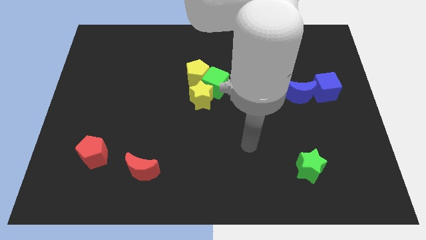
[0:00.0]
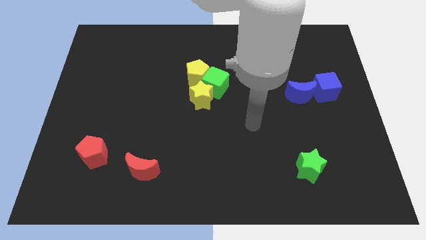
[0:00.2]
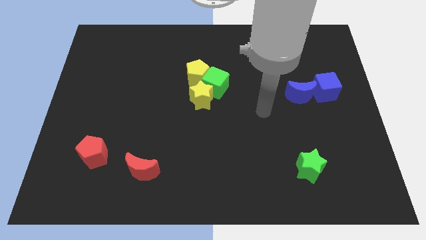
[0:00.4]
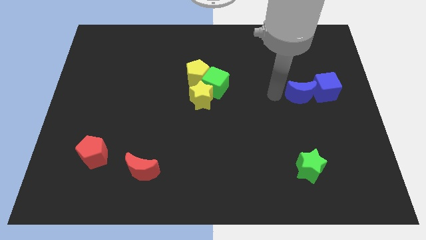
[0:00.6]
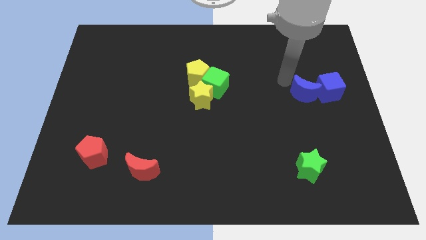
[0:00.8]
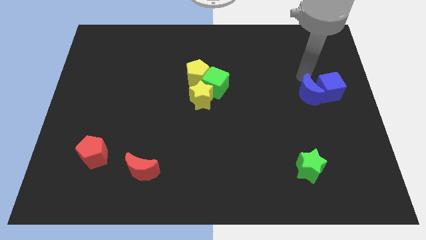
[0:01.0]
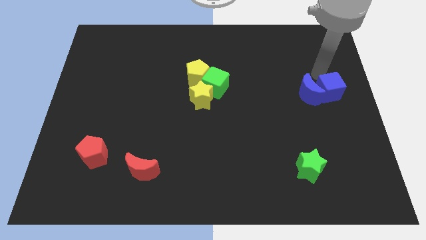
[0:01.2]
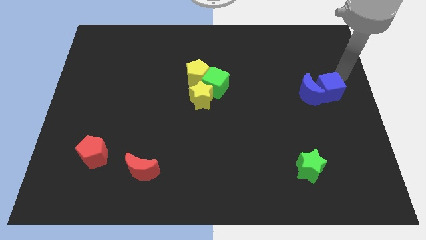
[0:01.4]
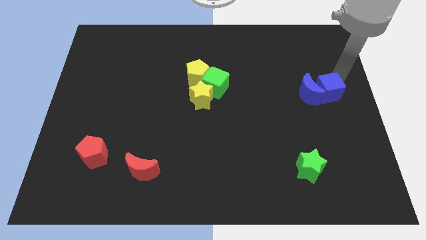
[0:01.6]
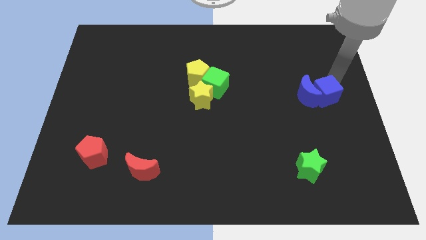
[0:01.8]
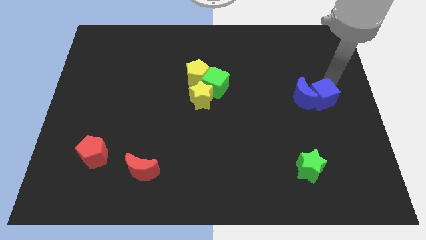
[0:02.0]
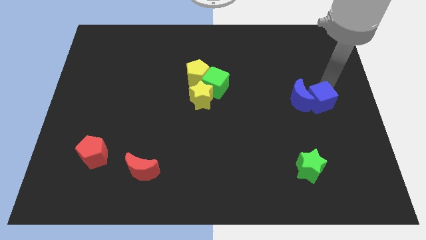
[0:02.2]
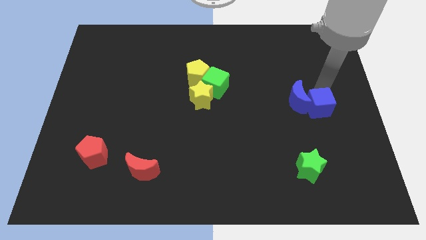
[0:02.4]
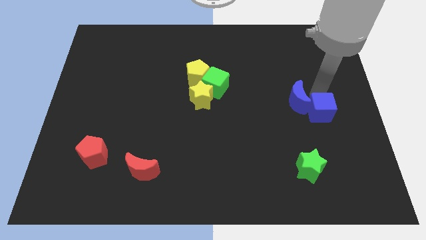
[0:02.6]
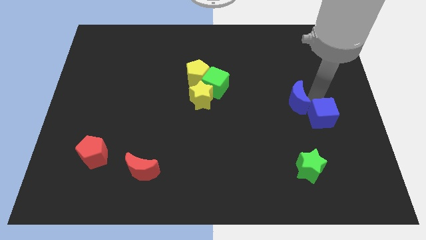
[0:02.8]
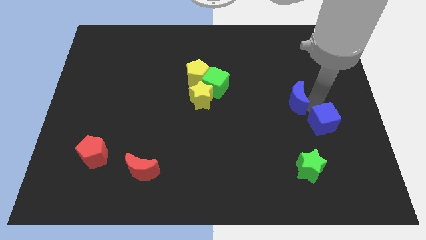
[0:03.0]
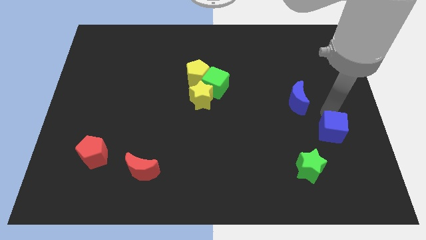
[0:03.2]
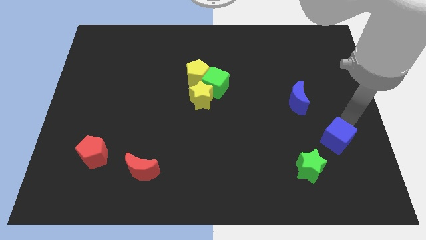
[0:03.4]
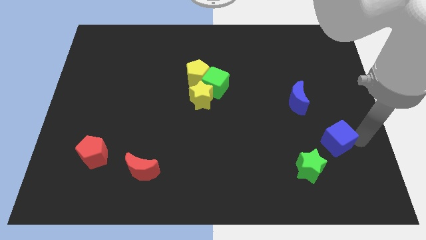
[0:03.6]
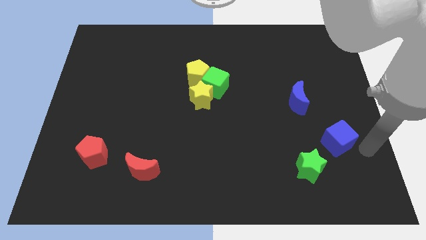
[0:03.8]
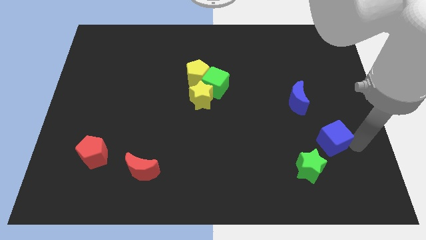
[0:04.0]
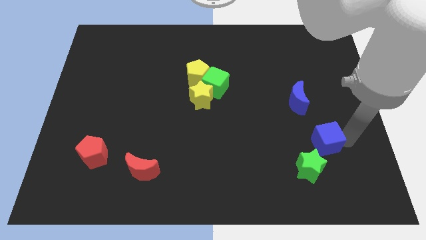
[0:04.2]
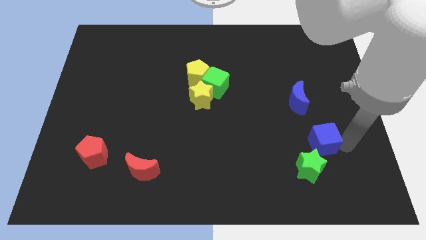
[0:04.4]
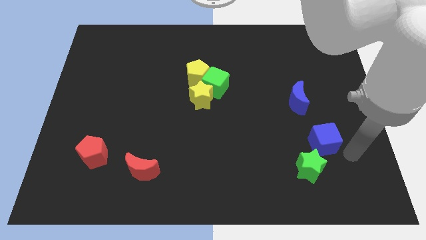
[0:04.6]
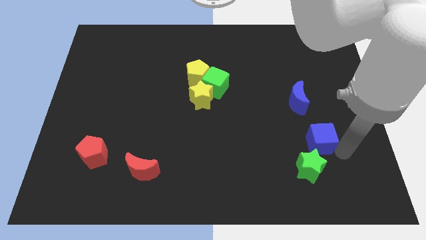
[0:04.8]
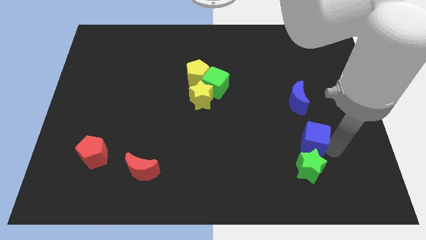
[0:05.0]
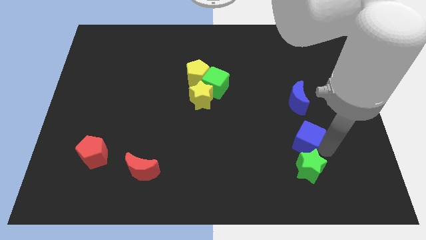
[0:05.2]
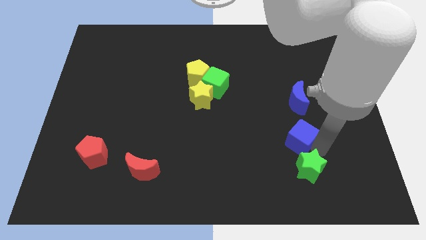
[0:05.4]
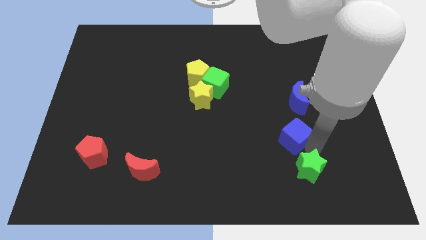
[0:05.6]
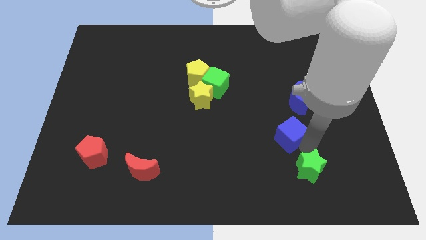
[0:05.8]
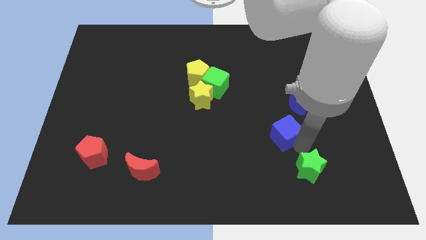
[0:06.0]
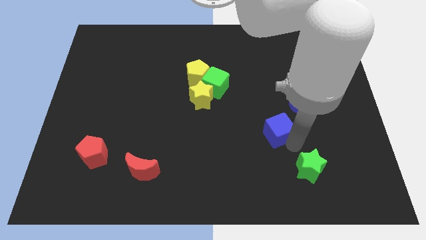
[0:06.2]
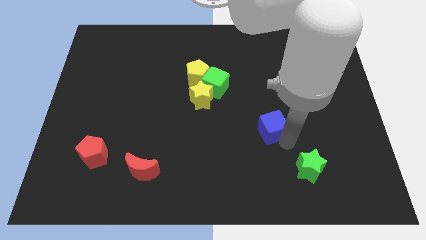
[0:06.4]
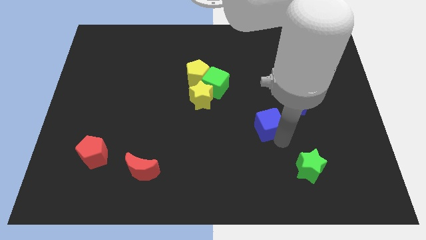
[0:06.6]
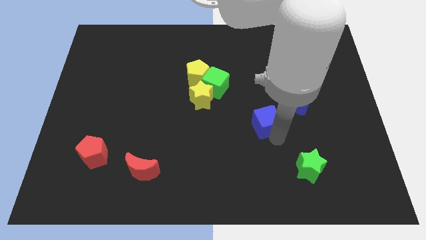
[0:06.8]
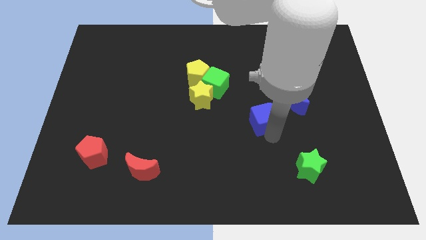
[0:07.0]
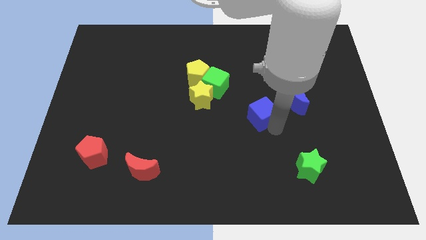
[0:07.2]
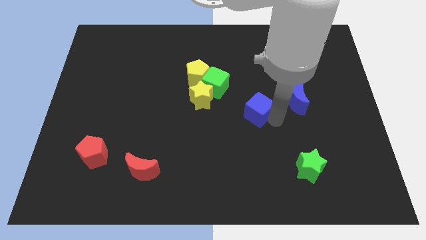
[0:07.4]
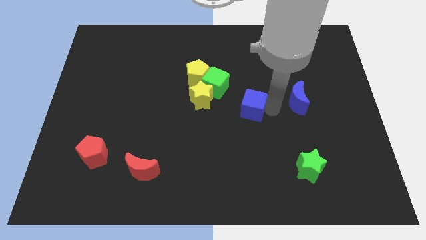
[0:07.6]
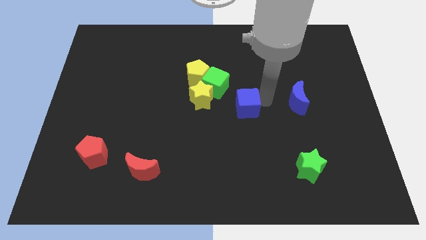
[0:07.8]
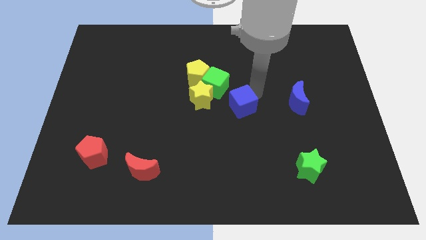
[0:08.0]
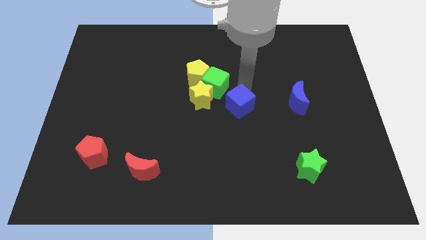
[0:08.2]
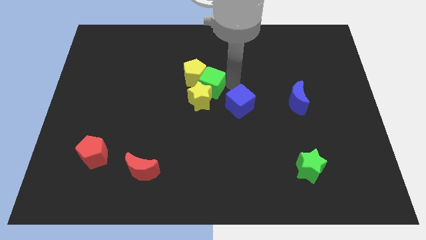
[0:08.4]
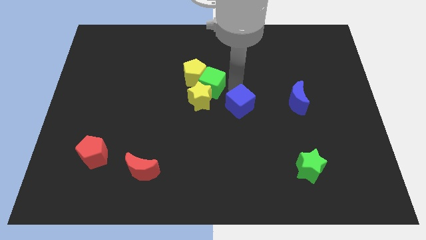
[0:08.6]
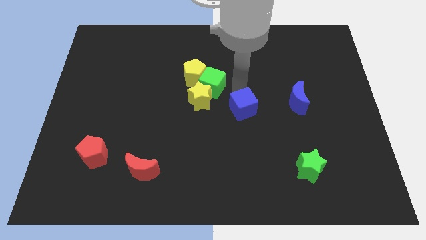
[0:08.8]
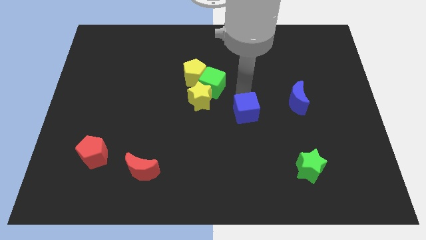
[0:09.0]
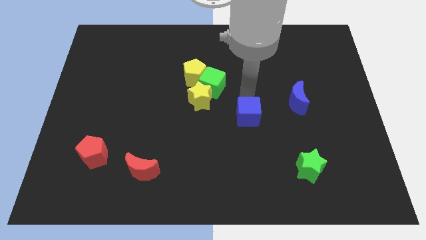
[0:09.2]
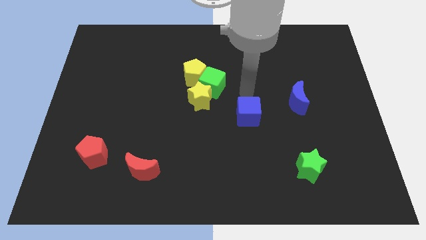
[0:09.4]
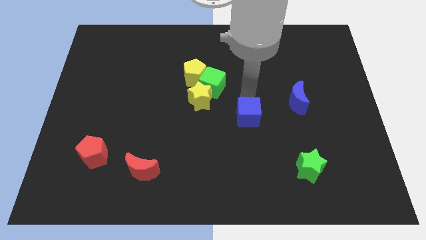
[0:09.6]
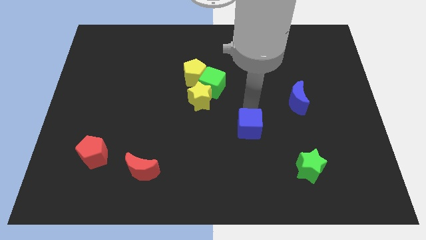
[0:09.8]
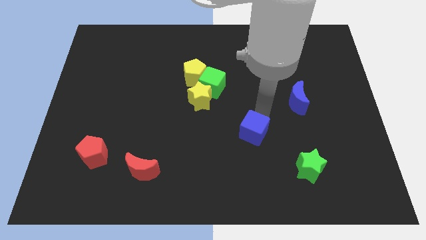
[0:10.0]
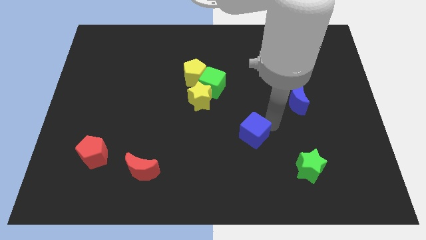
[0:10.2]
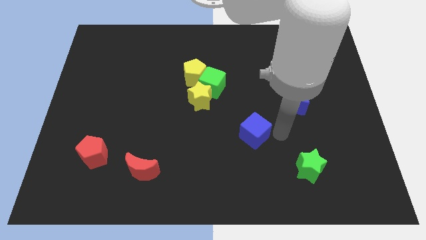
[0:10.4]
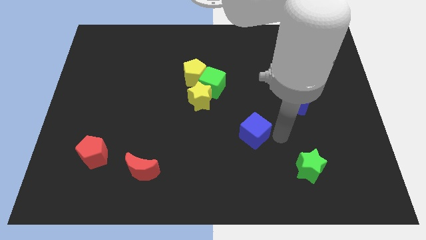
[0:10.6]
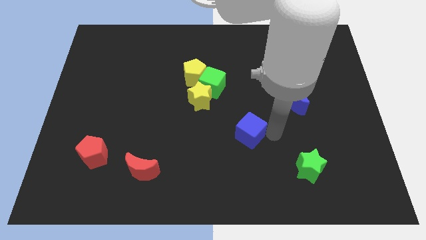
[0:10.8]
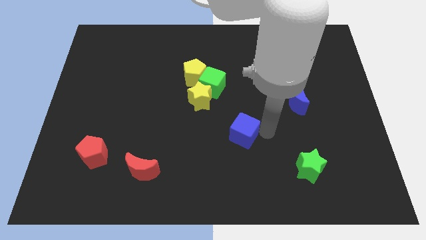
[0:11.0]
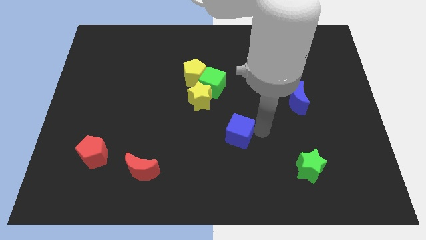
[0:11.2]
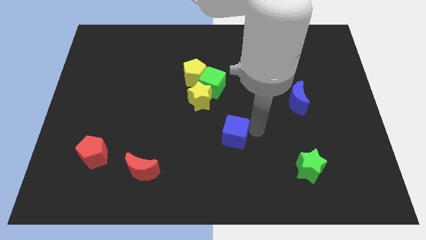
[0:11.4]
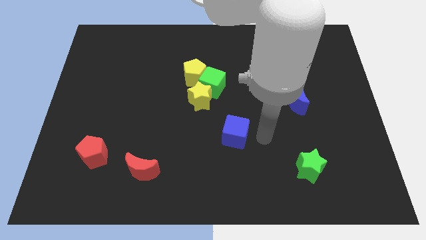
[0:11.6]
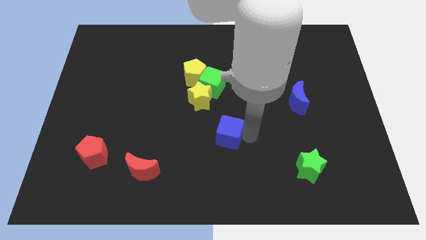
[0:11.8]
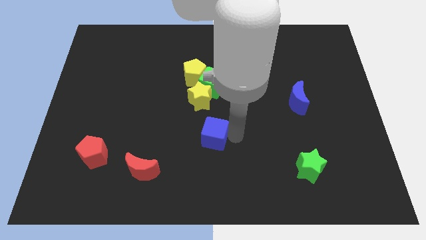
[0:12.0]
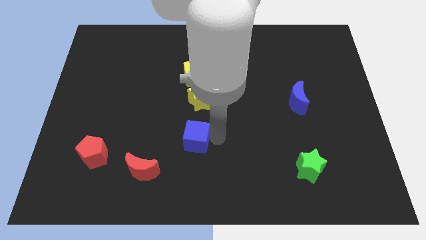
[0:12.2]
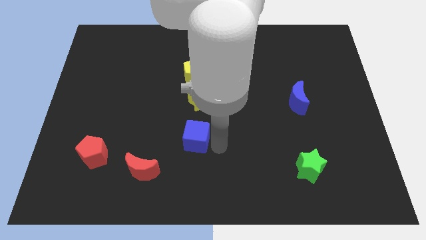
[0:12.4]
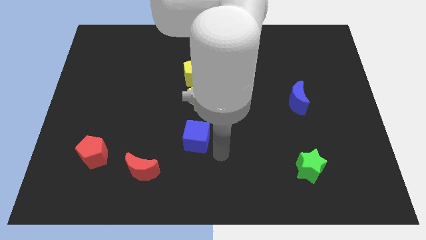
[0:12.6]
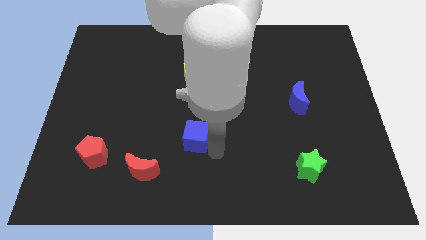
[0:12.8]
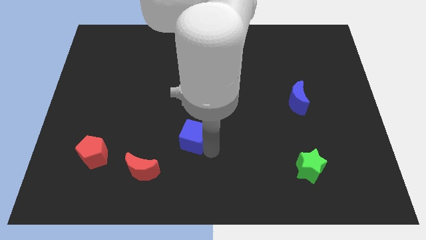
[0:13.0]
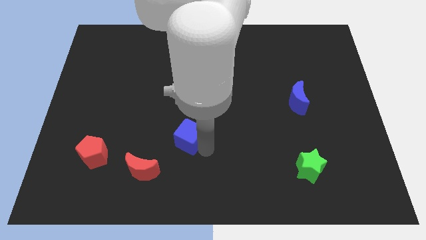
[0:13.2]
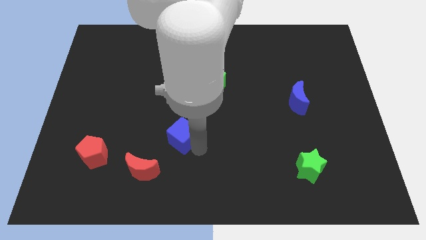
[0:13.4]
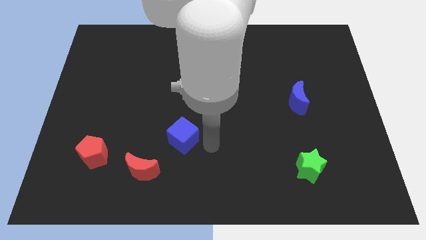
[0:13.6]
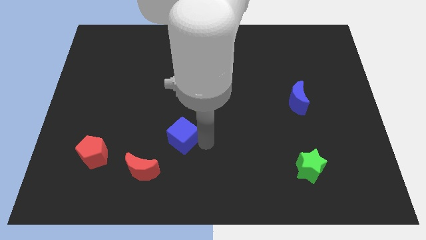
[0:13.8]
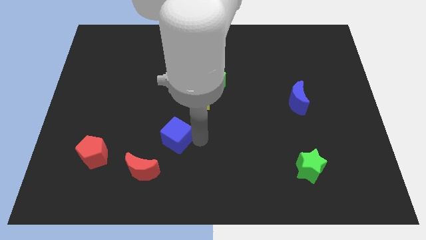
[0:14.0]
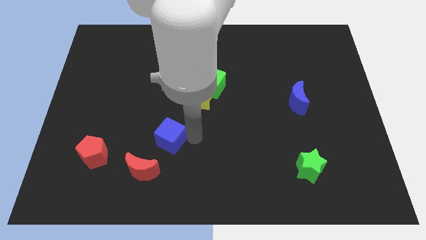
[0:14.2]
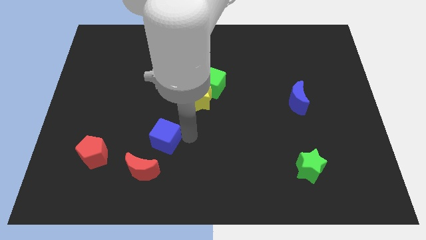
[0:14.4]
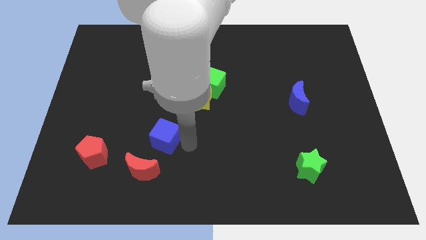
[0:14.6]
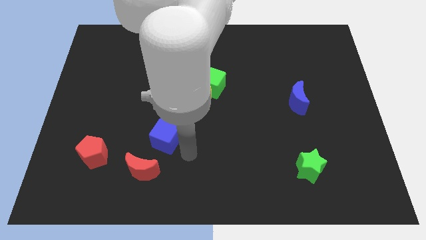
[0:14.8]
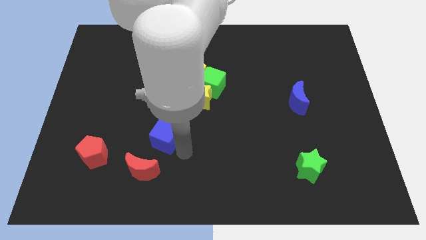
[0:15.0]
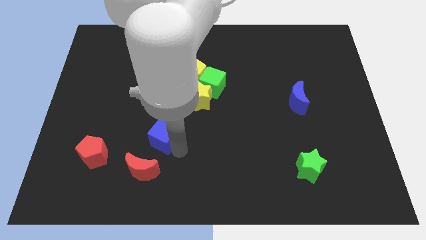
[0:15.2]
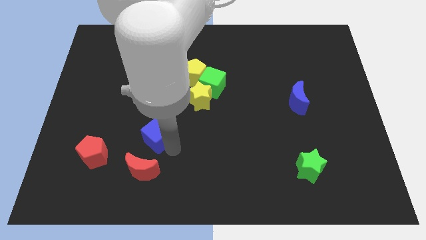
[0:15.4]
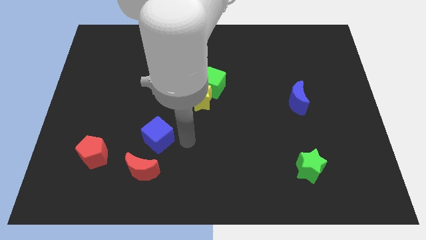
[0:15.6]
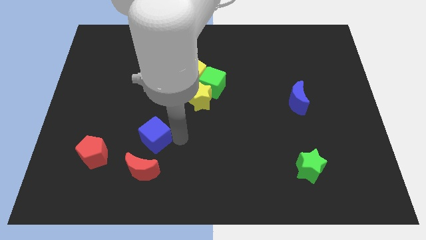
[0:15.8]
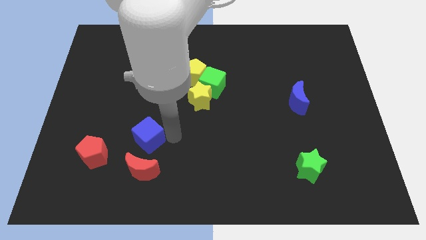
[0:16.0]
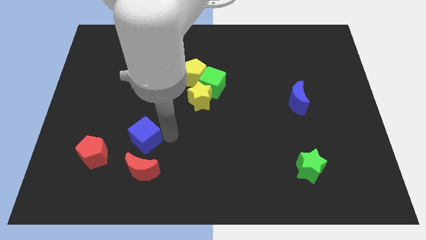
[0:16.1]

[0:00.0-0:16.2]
push the blue cube to the top right side of the red pentagon

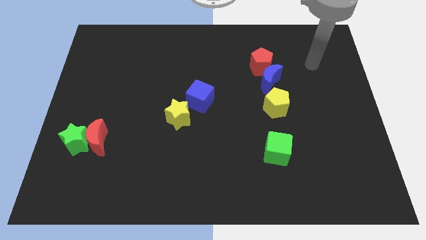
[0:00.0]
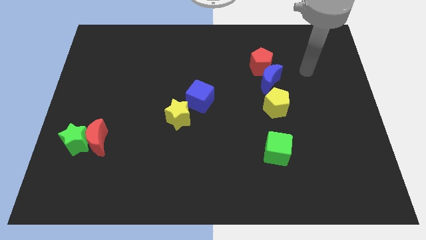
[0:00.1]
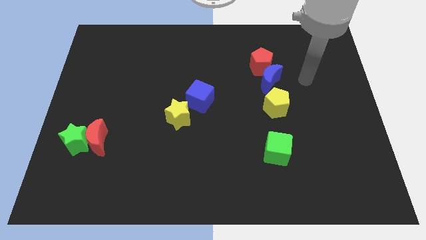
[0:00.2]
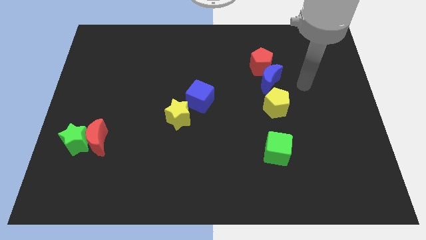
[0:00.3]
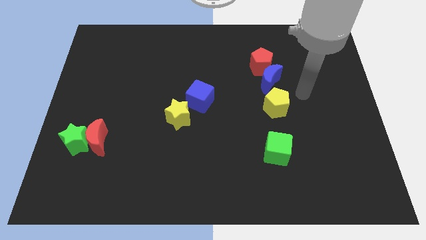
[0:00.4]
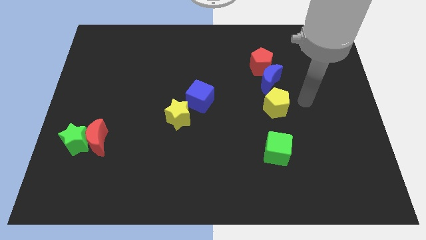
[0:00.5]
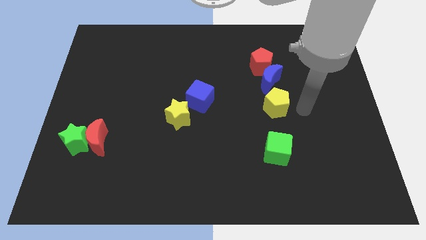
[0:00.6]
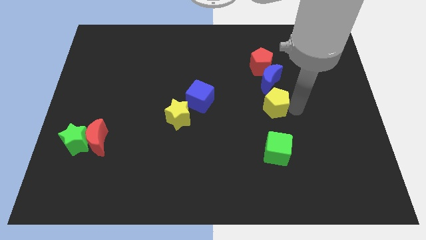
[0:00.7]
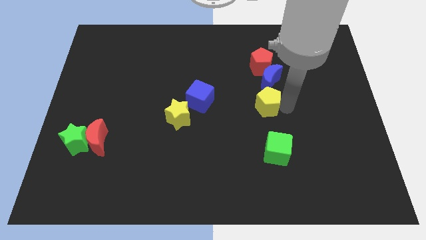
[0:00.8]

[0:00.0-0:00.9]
put the yellow pentagon to the right side of the blue cube
